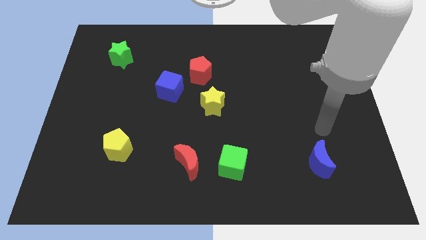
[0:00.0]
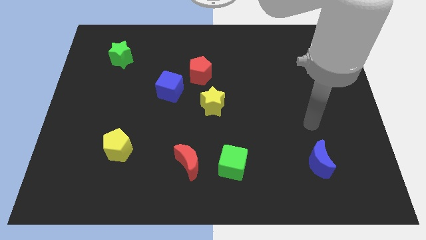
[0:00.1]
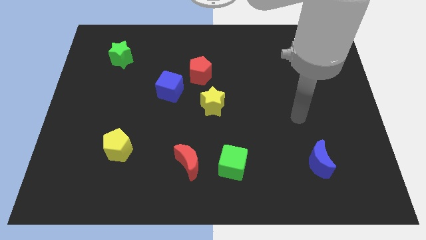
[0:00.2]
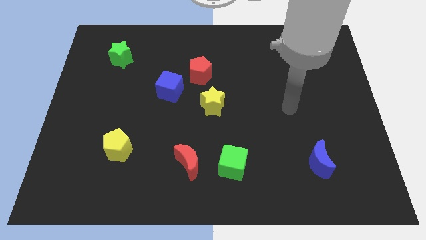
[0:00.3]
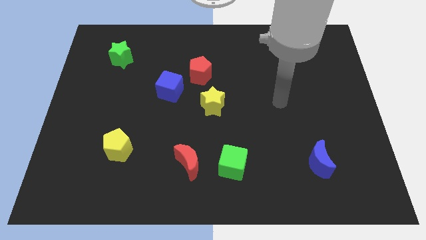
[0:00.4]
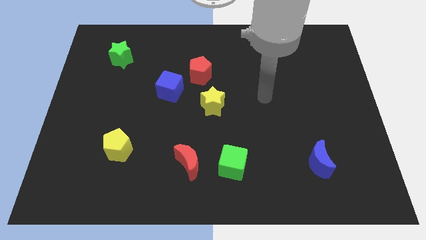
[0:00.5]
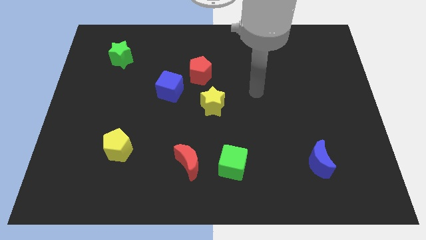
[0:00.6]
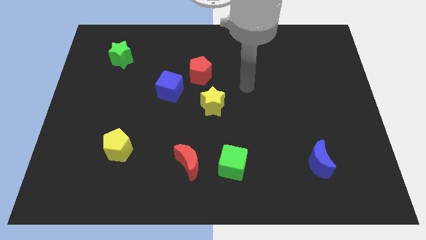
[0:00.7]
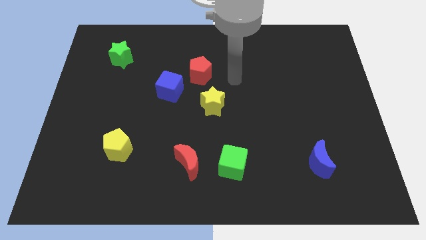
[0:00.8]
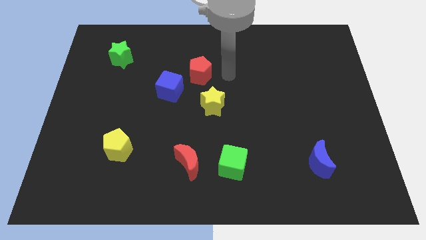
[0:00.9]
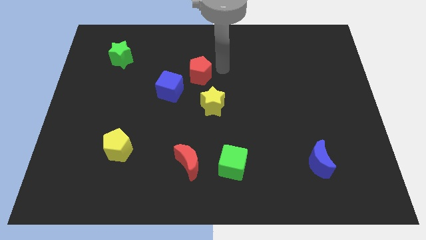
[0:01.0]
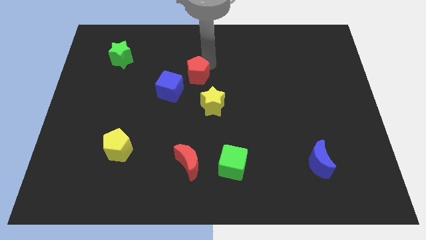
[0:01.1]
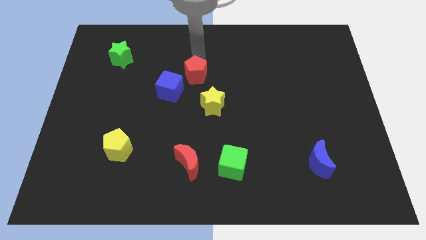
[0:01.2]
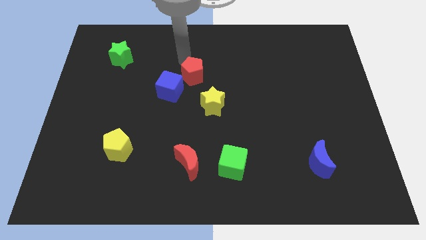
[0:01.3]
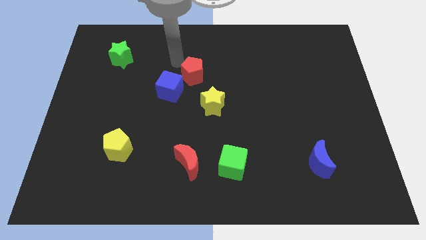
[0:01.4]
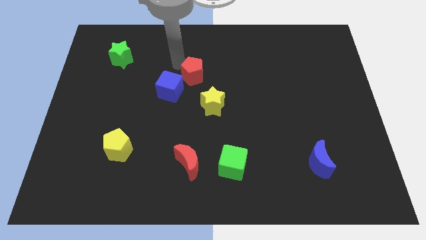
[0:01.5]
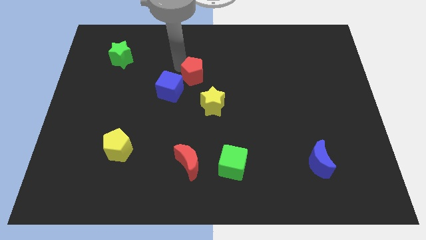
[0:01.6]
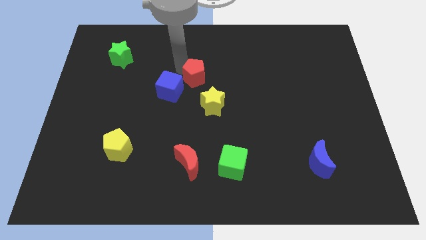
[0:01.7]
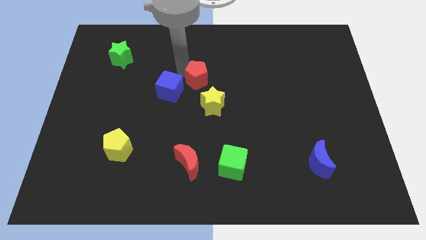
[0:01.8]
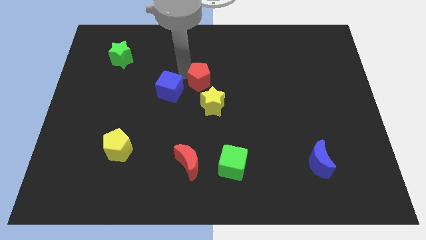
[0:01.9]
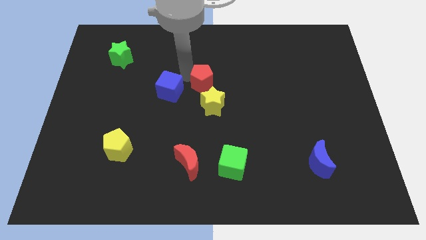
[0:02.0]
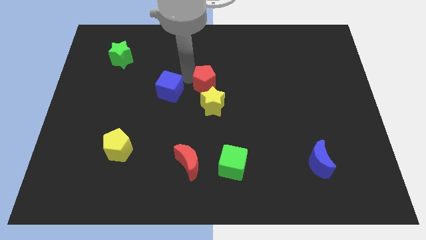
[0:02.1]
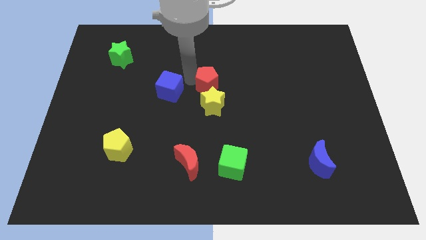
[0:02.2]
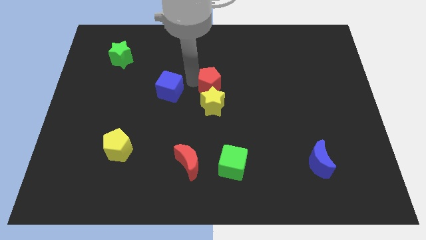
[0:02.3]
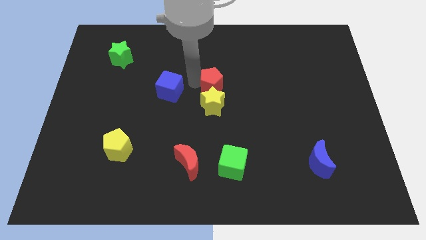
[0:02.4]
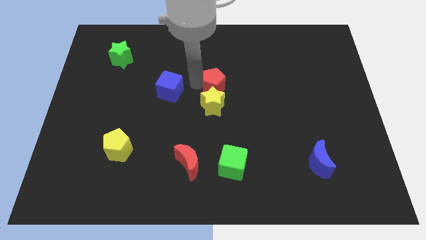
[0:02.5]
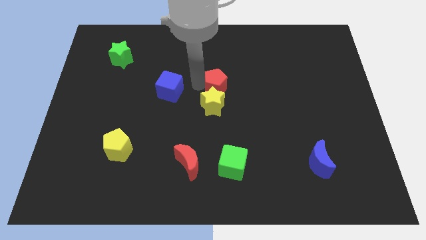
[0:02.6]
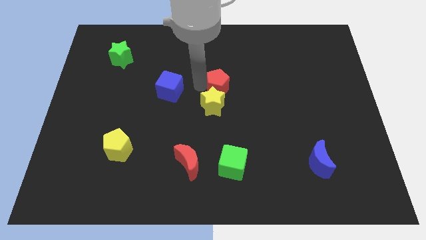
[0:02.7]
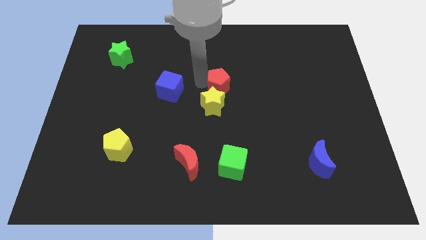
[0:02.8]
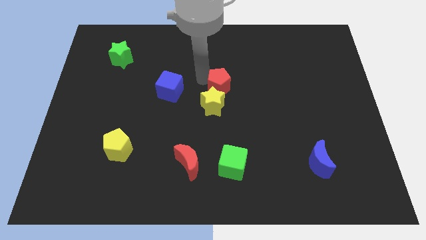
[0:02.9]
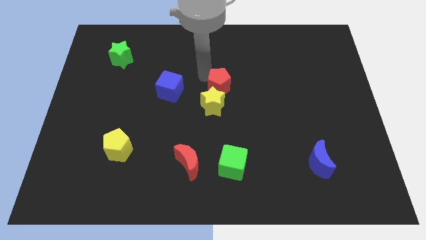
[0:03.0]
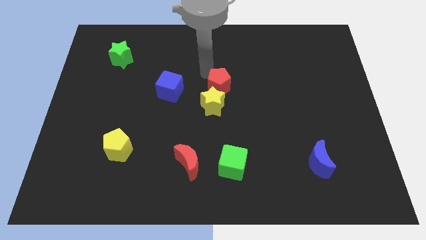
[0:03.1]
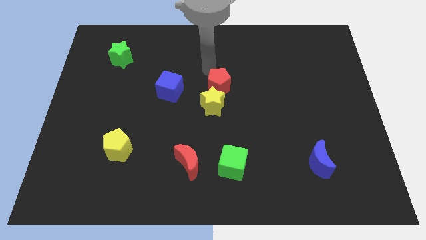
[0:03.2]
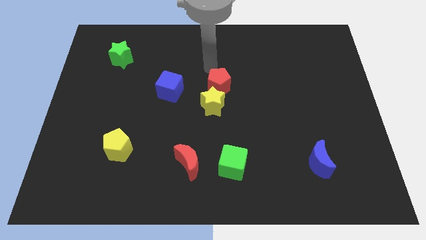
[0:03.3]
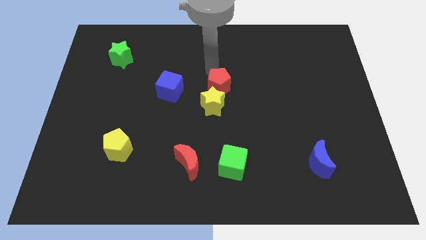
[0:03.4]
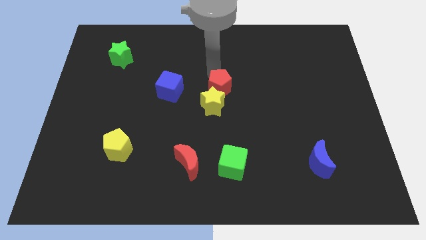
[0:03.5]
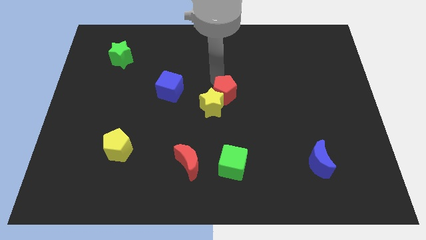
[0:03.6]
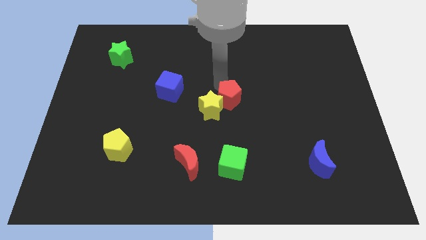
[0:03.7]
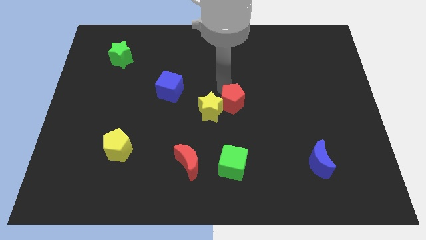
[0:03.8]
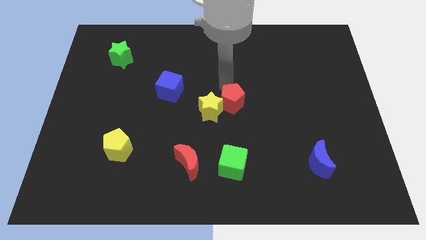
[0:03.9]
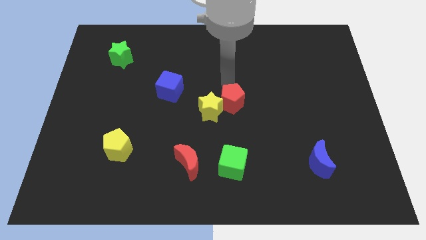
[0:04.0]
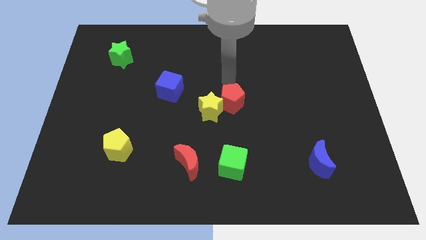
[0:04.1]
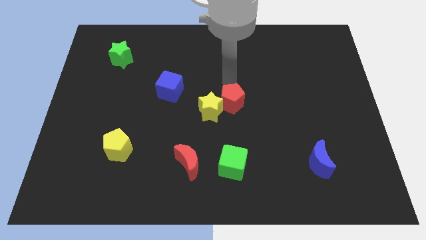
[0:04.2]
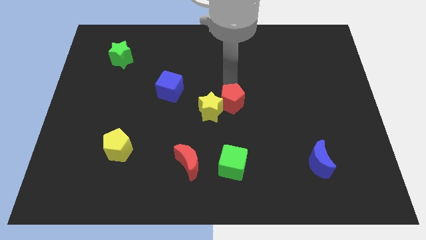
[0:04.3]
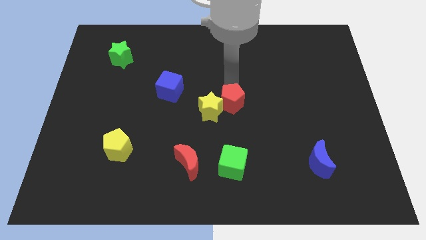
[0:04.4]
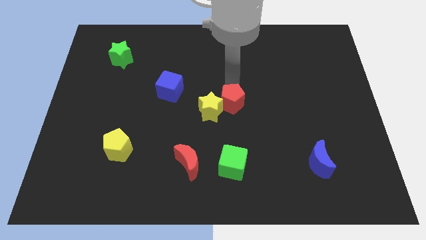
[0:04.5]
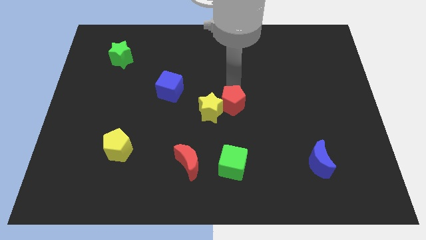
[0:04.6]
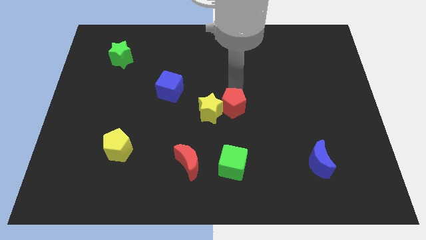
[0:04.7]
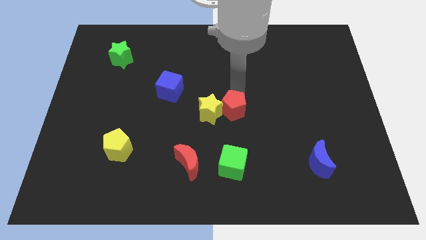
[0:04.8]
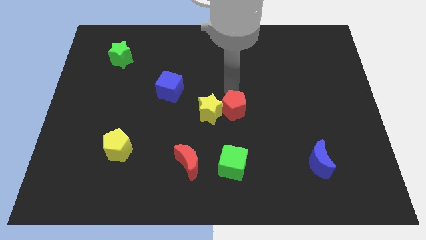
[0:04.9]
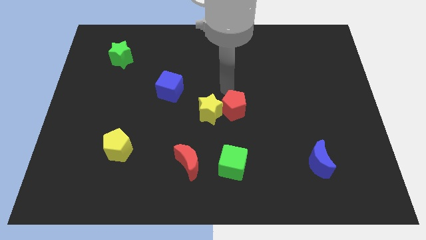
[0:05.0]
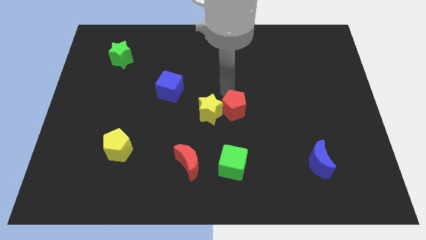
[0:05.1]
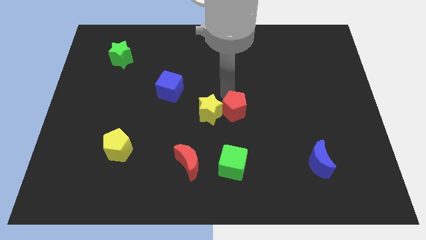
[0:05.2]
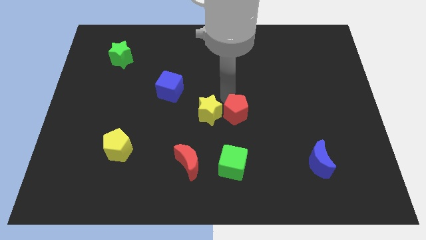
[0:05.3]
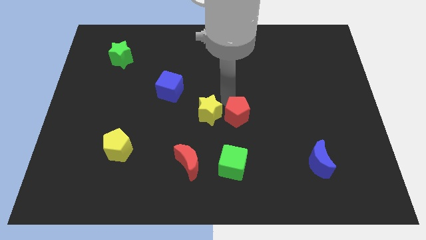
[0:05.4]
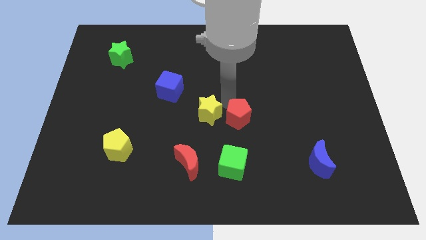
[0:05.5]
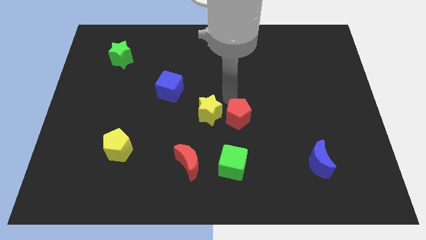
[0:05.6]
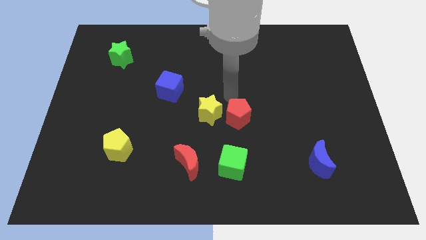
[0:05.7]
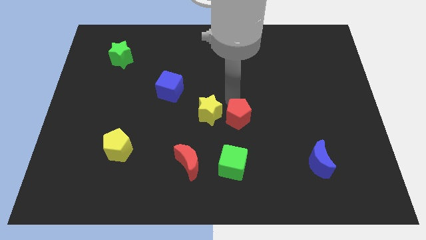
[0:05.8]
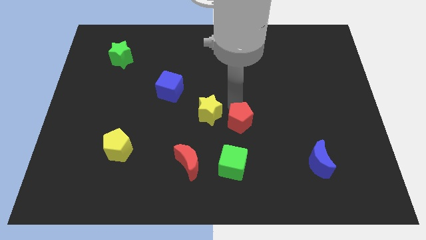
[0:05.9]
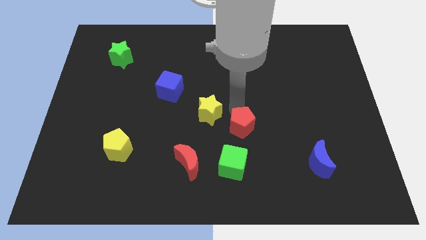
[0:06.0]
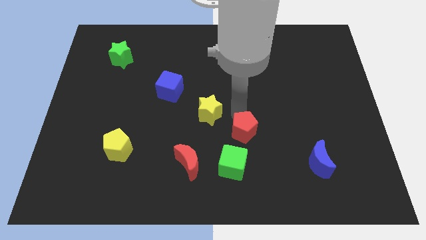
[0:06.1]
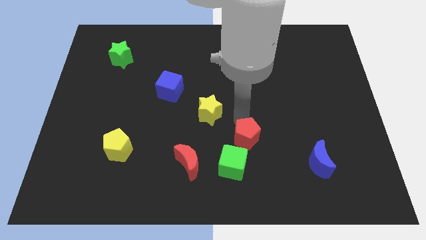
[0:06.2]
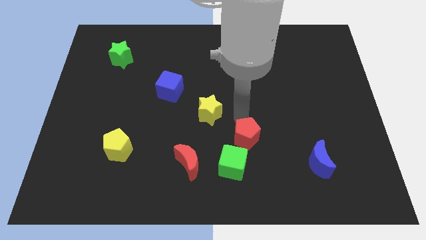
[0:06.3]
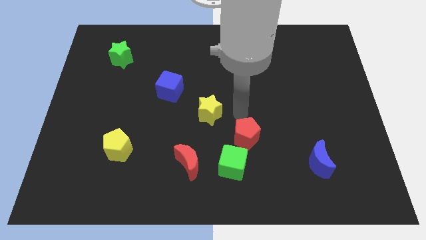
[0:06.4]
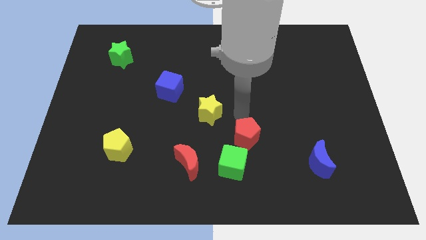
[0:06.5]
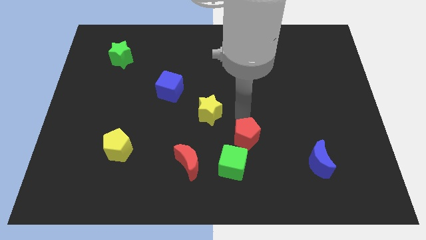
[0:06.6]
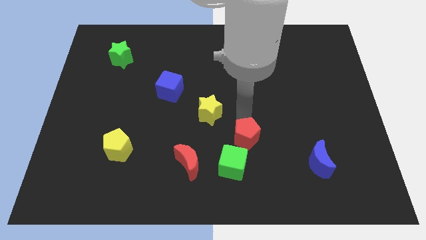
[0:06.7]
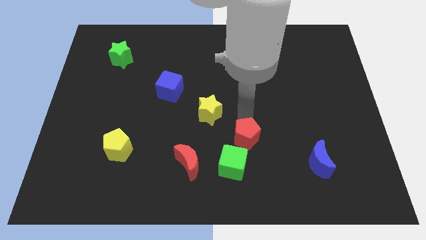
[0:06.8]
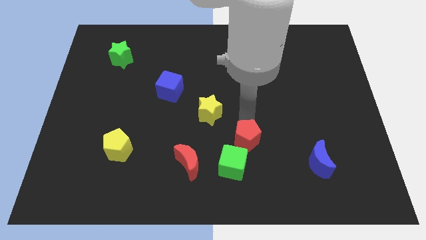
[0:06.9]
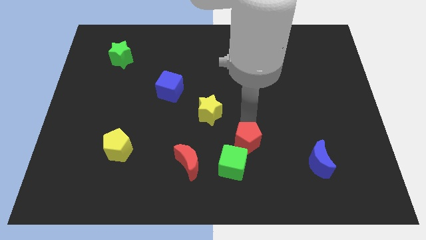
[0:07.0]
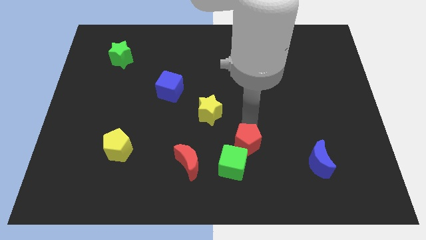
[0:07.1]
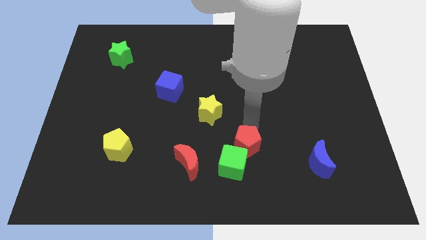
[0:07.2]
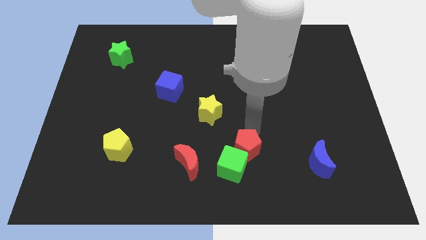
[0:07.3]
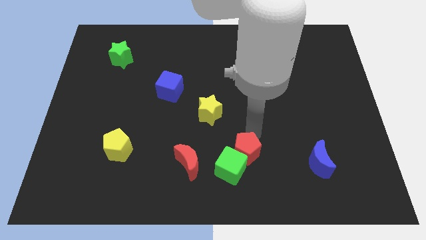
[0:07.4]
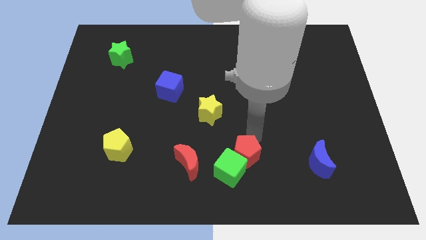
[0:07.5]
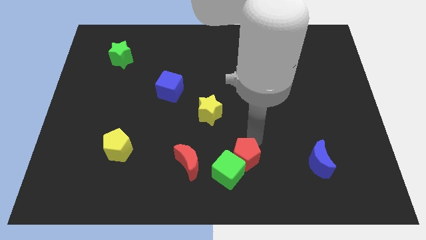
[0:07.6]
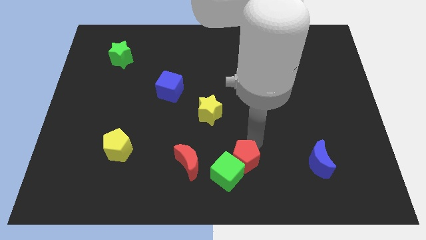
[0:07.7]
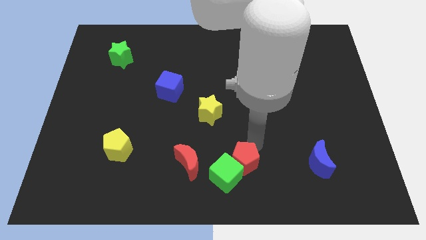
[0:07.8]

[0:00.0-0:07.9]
put the red pentagon to the bottom
